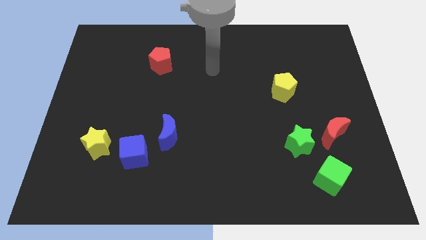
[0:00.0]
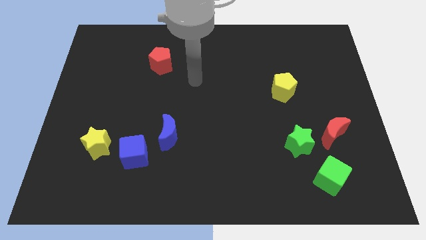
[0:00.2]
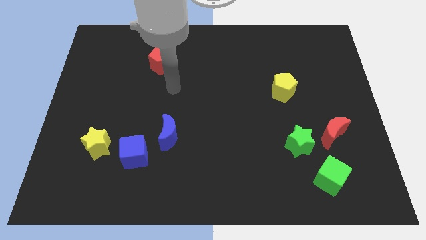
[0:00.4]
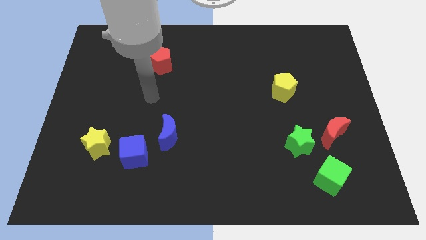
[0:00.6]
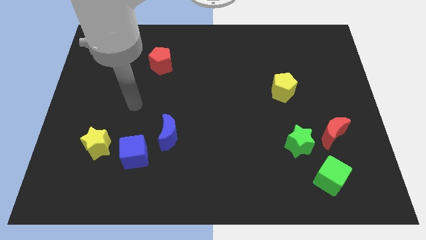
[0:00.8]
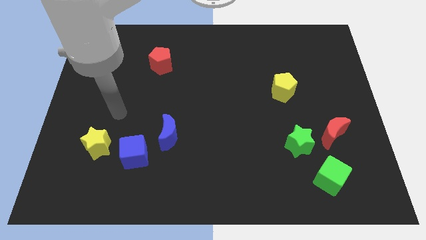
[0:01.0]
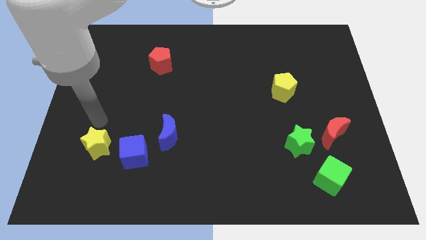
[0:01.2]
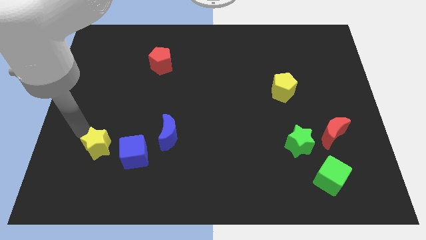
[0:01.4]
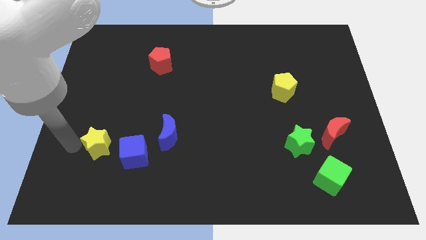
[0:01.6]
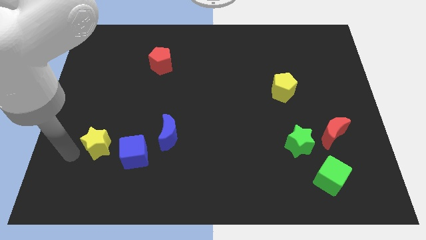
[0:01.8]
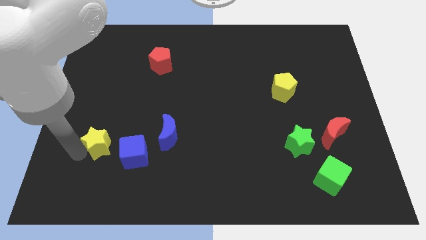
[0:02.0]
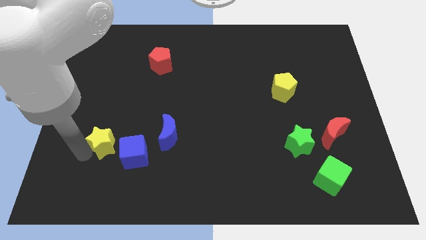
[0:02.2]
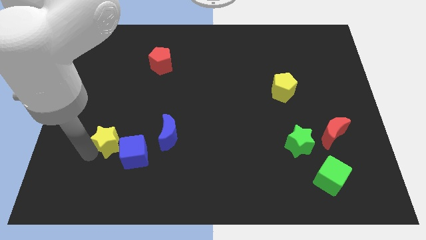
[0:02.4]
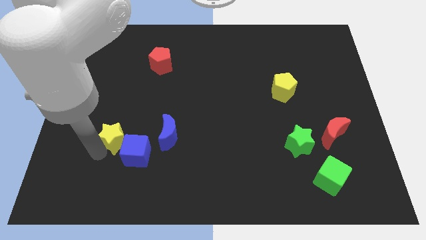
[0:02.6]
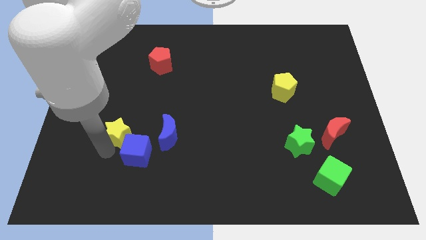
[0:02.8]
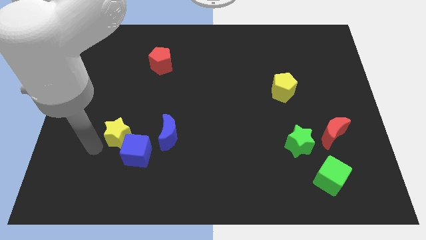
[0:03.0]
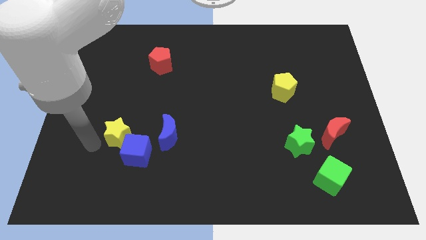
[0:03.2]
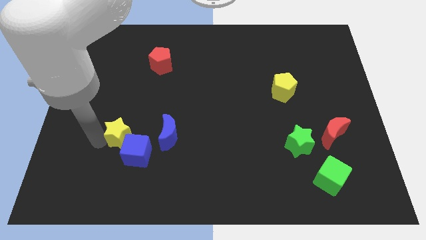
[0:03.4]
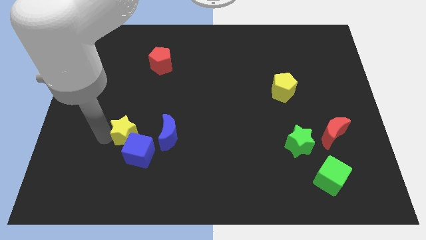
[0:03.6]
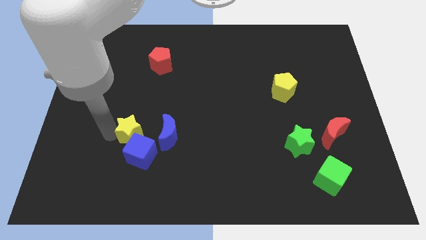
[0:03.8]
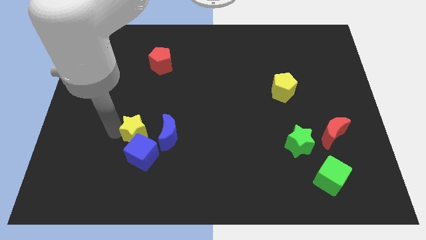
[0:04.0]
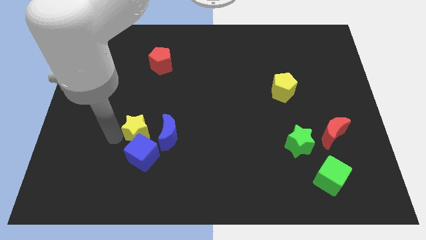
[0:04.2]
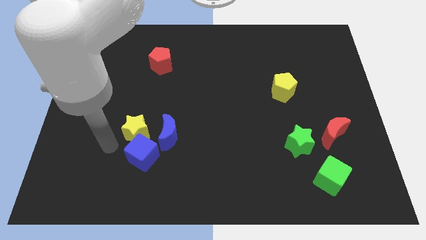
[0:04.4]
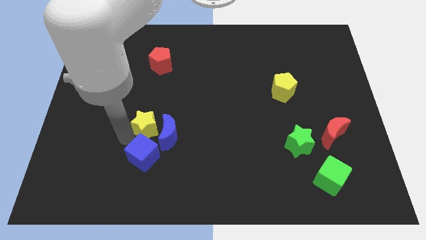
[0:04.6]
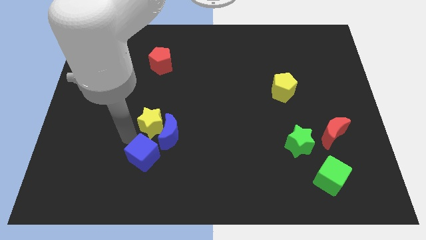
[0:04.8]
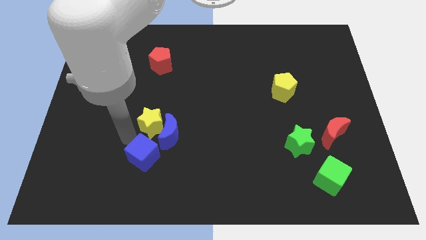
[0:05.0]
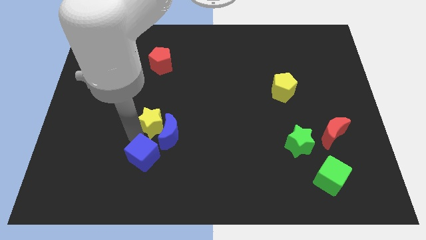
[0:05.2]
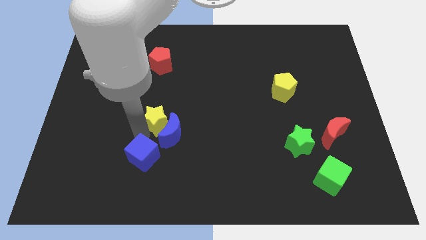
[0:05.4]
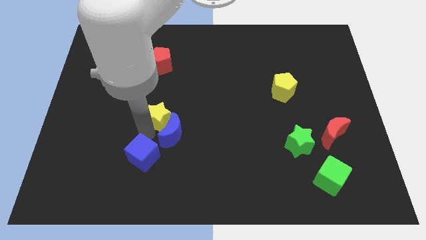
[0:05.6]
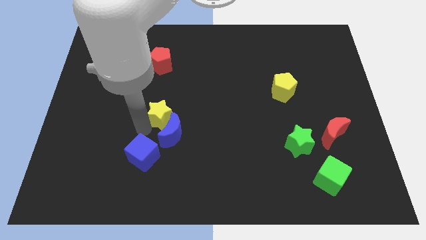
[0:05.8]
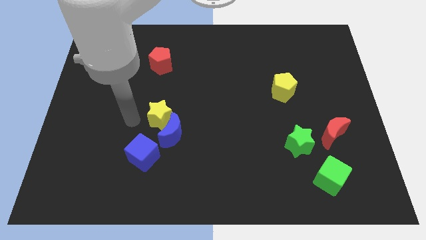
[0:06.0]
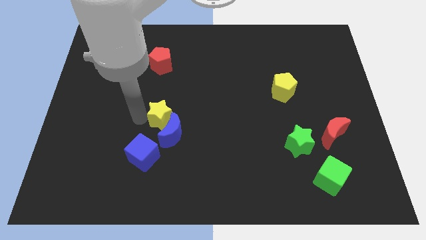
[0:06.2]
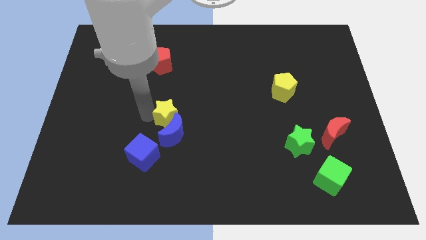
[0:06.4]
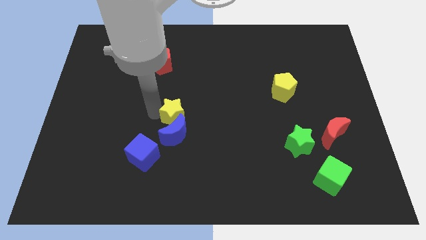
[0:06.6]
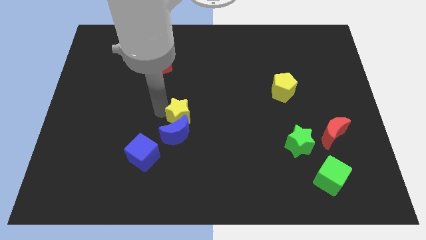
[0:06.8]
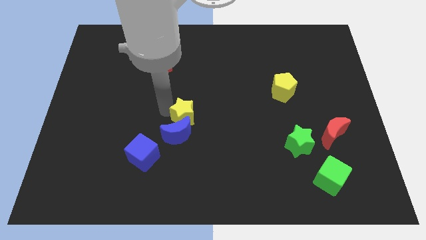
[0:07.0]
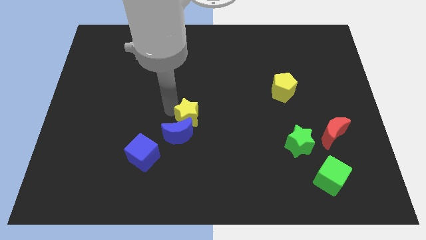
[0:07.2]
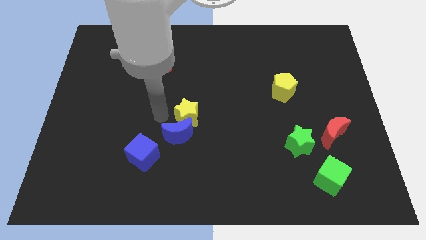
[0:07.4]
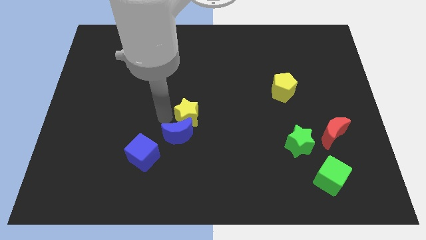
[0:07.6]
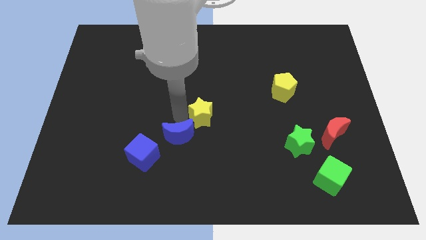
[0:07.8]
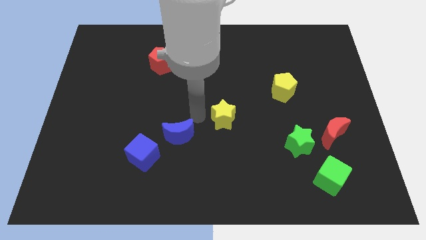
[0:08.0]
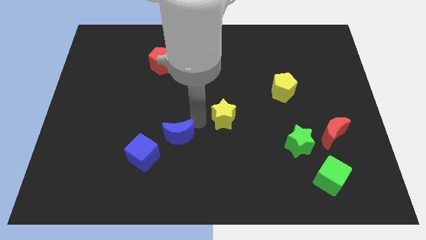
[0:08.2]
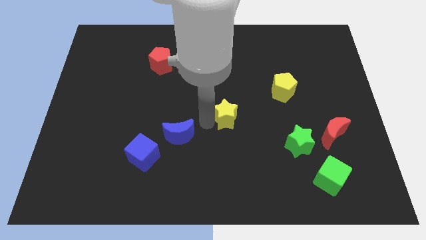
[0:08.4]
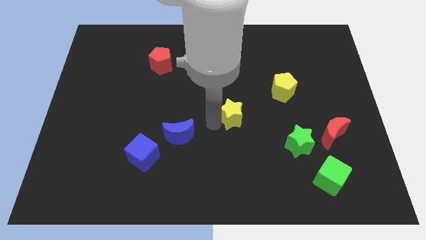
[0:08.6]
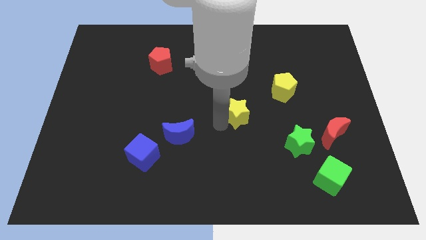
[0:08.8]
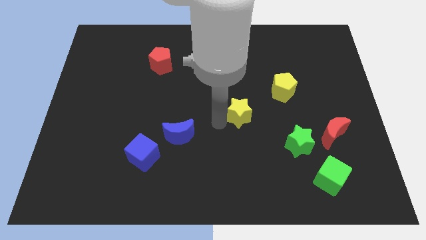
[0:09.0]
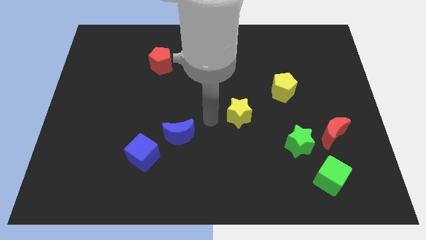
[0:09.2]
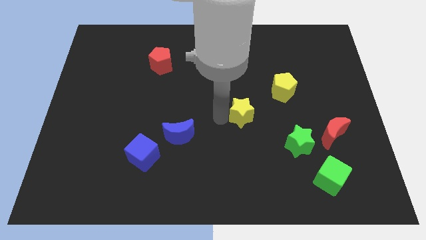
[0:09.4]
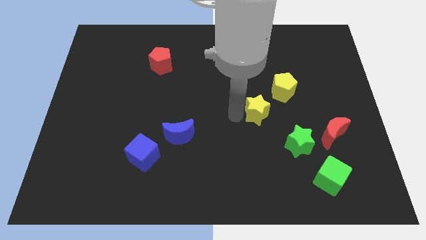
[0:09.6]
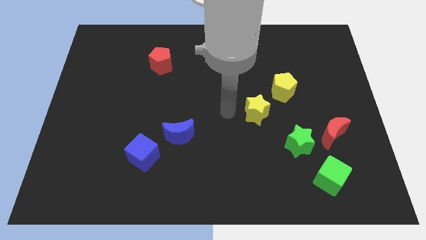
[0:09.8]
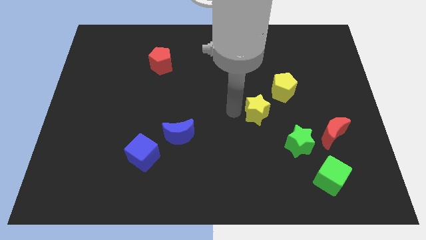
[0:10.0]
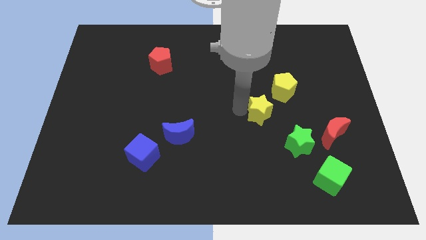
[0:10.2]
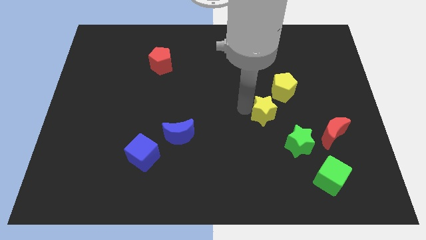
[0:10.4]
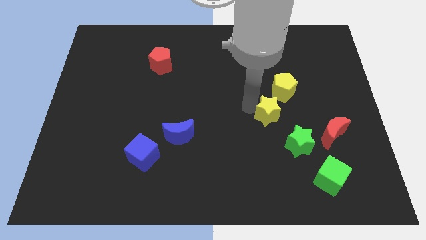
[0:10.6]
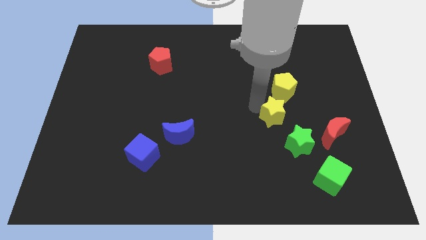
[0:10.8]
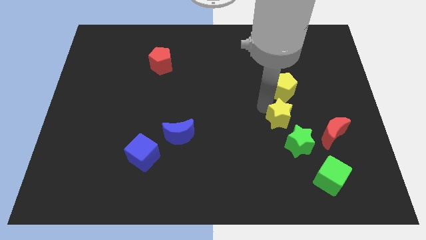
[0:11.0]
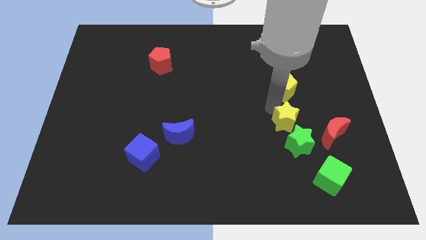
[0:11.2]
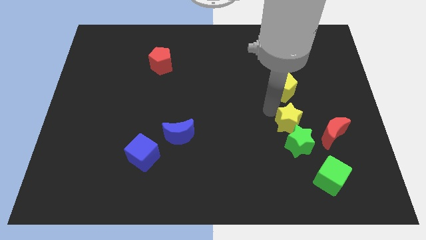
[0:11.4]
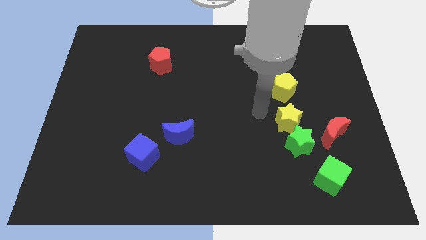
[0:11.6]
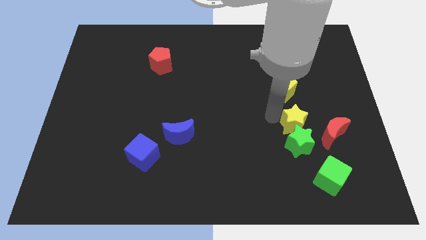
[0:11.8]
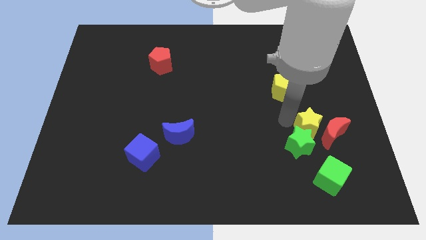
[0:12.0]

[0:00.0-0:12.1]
slide the yellow star close to the red moon

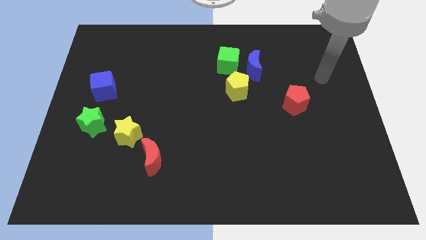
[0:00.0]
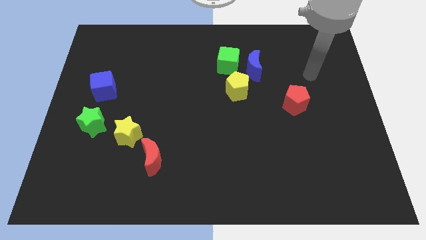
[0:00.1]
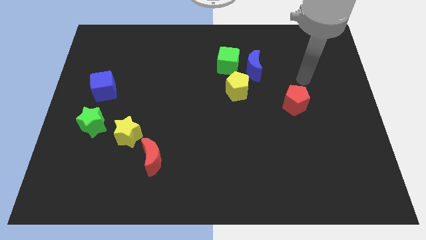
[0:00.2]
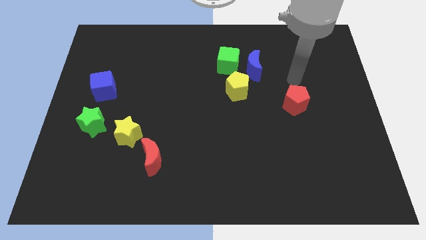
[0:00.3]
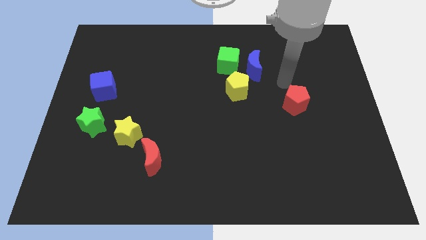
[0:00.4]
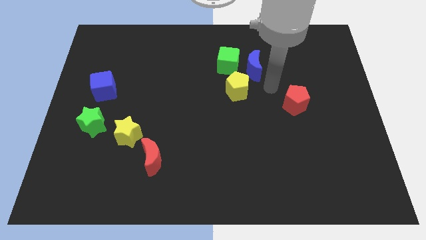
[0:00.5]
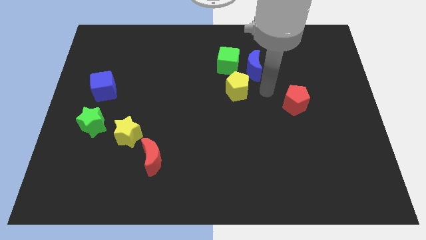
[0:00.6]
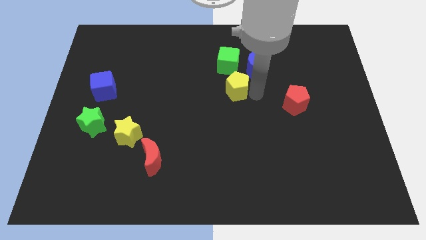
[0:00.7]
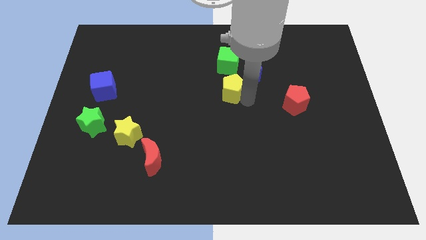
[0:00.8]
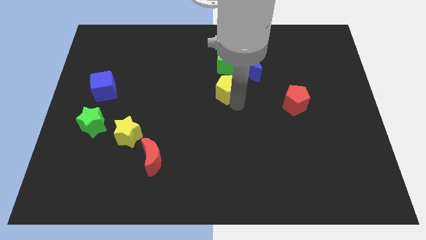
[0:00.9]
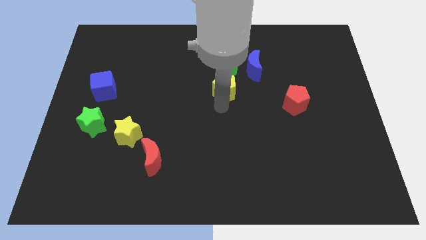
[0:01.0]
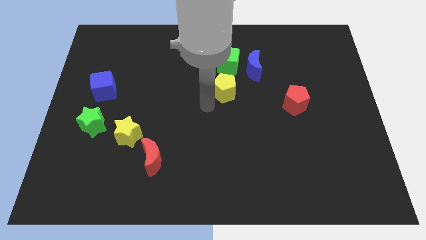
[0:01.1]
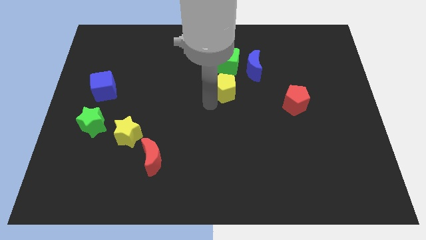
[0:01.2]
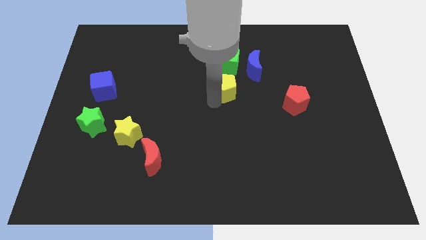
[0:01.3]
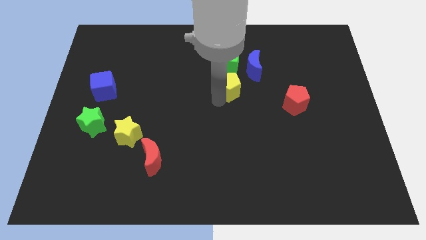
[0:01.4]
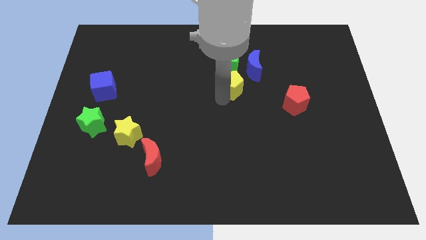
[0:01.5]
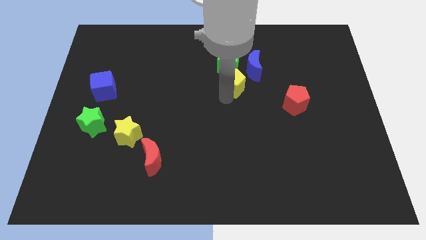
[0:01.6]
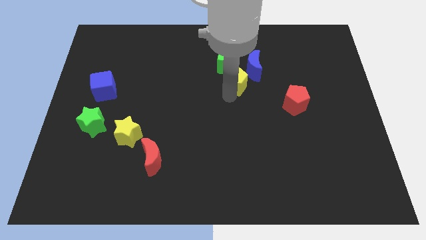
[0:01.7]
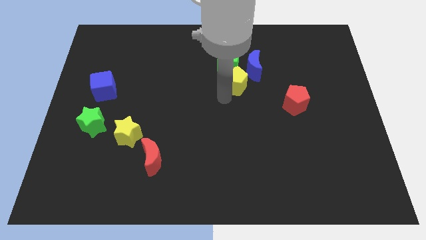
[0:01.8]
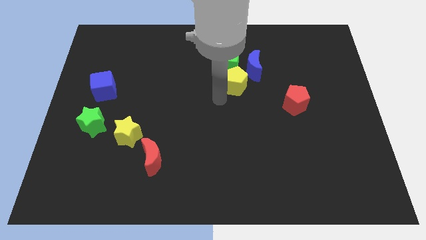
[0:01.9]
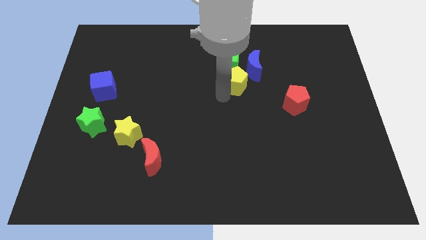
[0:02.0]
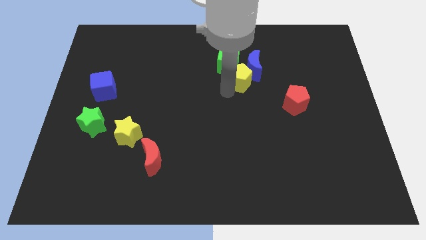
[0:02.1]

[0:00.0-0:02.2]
push the yellow pentagon towards the blue moon
